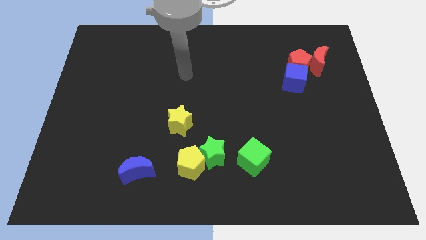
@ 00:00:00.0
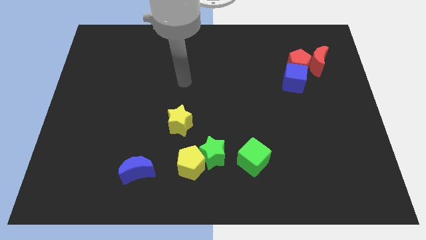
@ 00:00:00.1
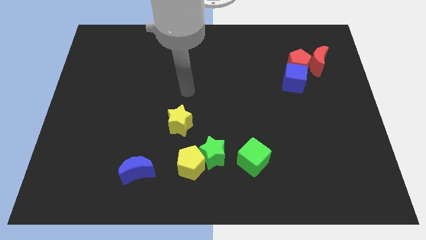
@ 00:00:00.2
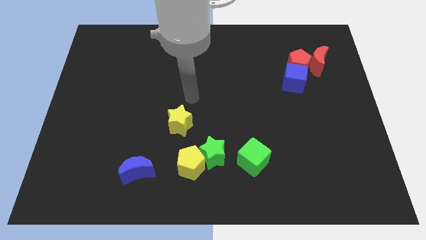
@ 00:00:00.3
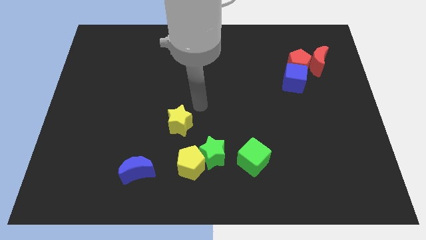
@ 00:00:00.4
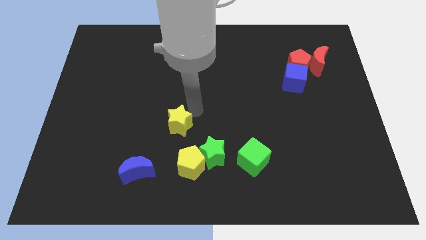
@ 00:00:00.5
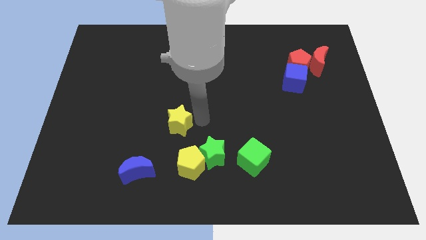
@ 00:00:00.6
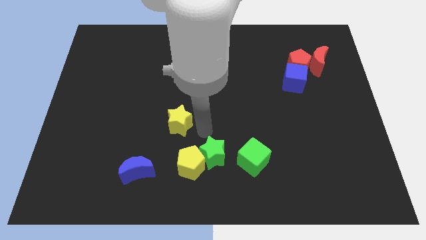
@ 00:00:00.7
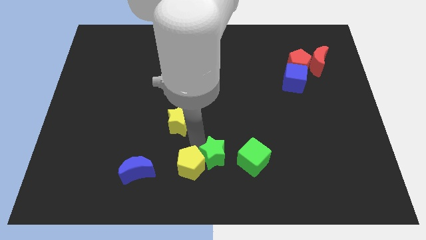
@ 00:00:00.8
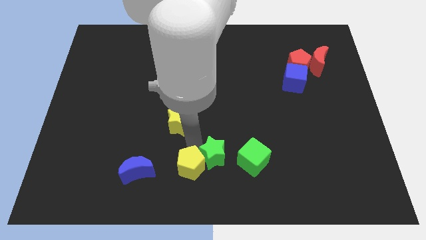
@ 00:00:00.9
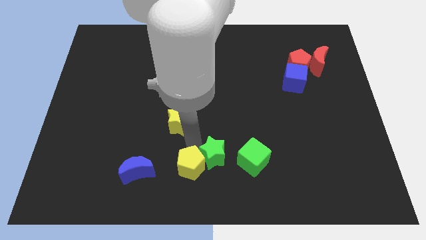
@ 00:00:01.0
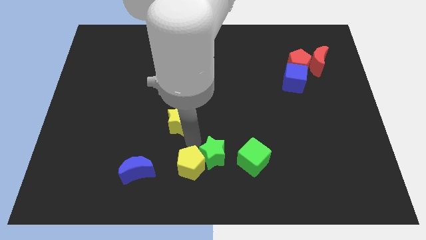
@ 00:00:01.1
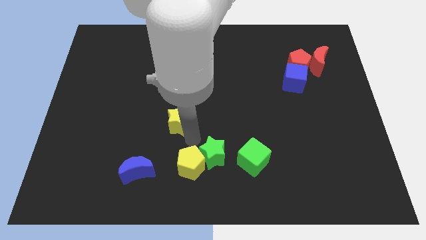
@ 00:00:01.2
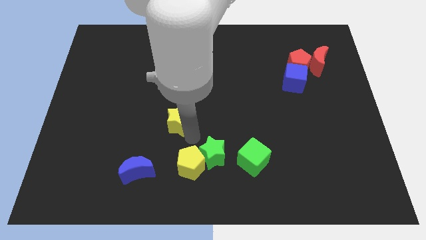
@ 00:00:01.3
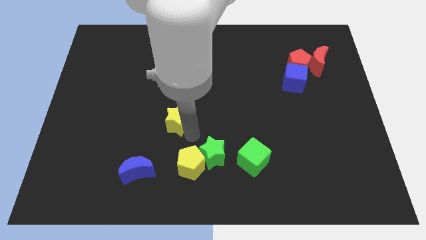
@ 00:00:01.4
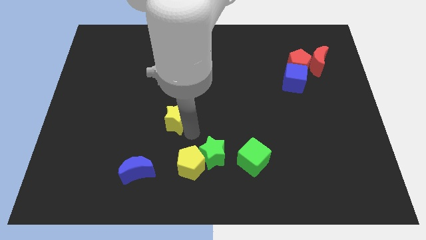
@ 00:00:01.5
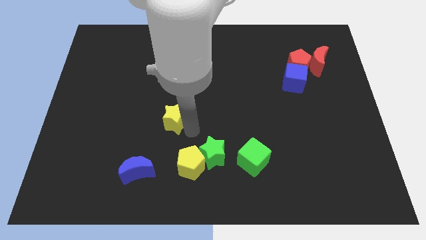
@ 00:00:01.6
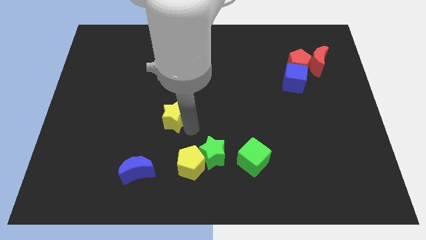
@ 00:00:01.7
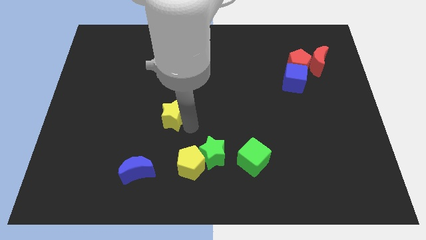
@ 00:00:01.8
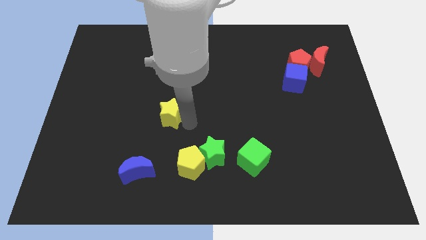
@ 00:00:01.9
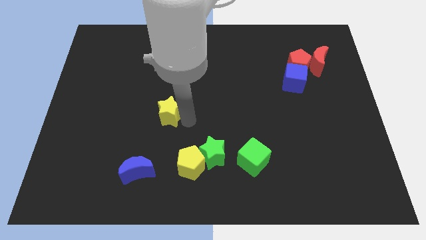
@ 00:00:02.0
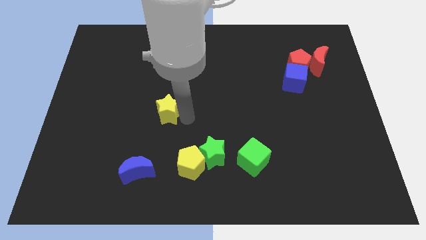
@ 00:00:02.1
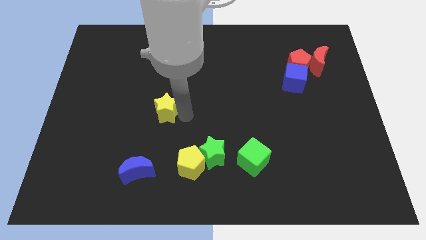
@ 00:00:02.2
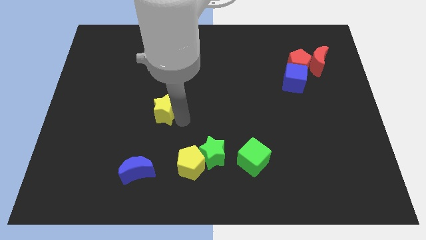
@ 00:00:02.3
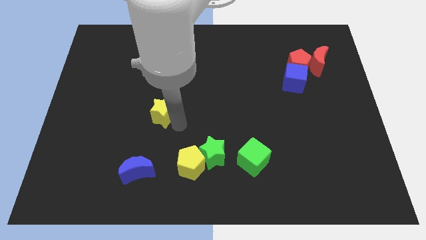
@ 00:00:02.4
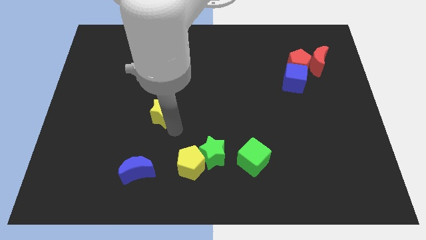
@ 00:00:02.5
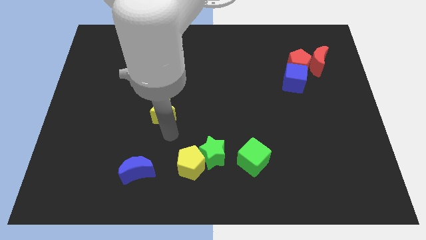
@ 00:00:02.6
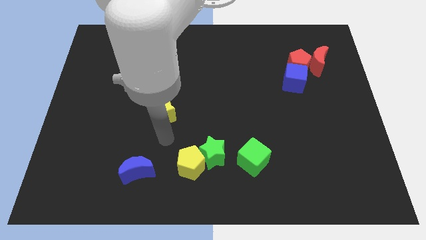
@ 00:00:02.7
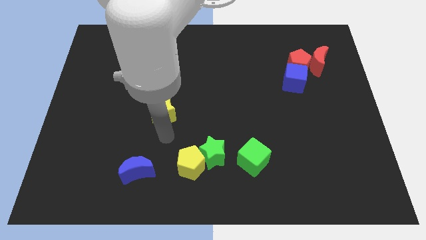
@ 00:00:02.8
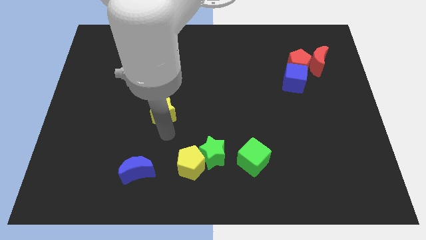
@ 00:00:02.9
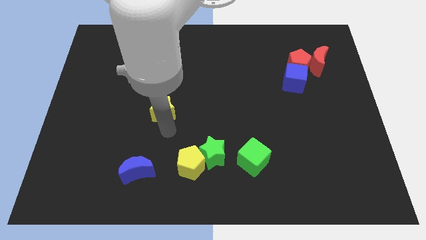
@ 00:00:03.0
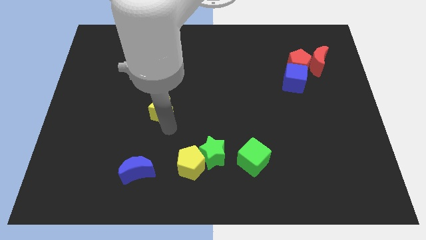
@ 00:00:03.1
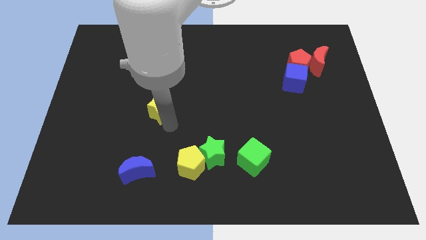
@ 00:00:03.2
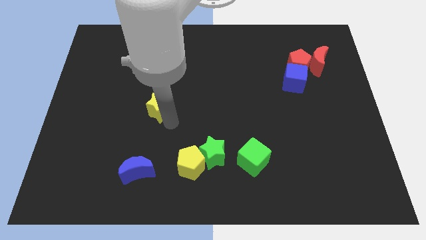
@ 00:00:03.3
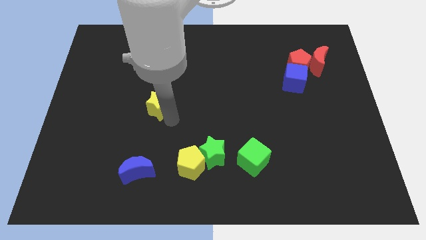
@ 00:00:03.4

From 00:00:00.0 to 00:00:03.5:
slightly push the yellow star upwards and left

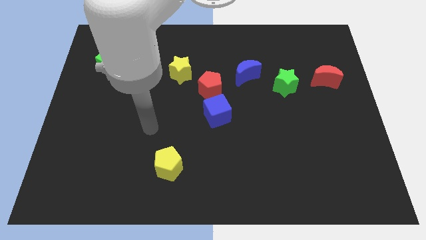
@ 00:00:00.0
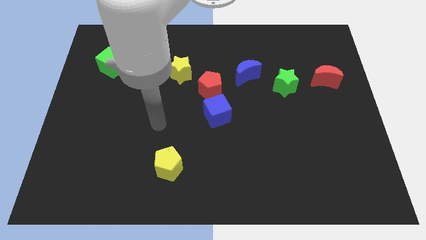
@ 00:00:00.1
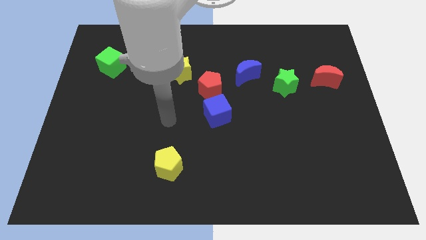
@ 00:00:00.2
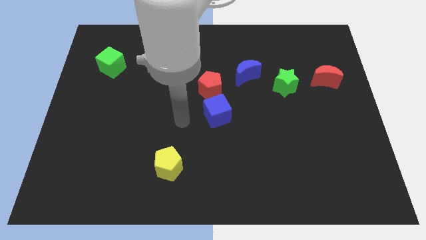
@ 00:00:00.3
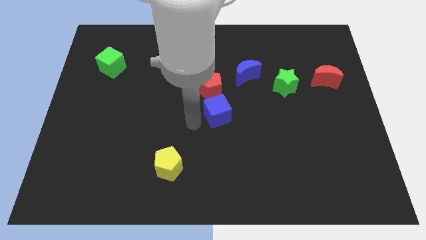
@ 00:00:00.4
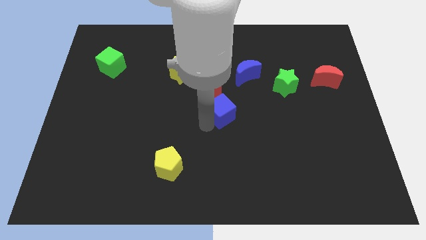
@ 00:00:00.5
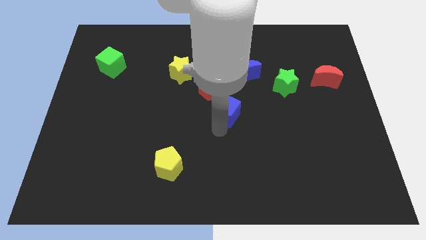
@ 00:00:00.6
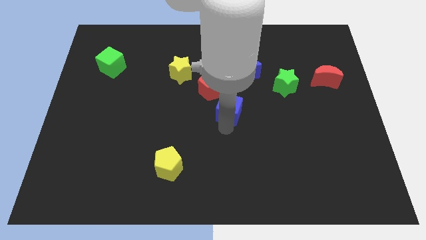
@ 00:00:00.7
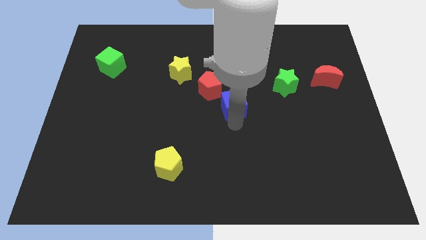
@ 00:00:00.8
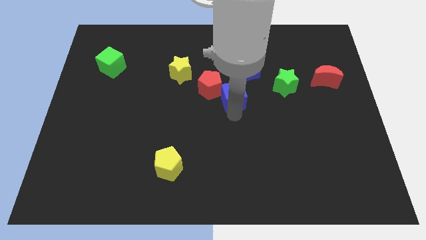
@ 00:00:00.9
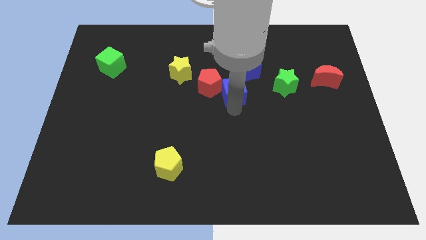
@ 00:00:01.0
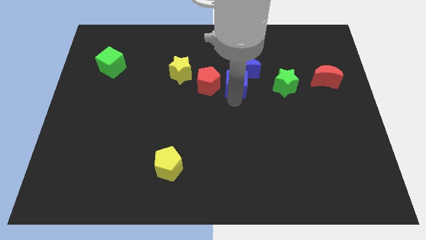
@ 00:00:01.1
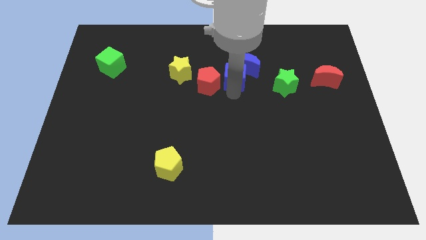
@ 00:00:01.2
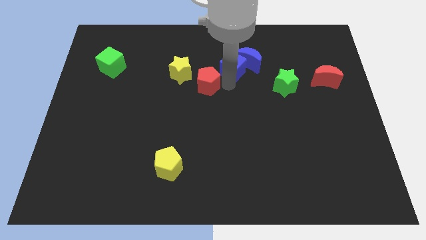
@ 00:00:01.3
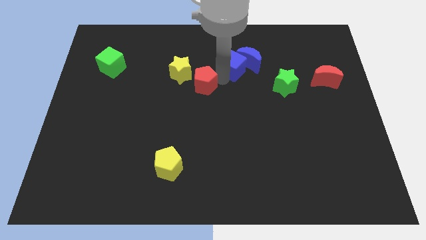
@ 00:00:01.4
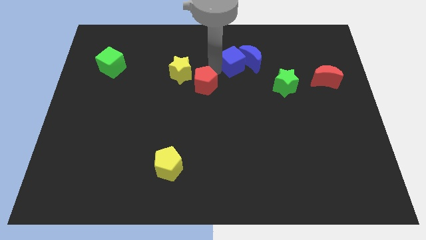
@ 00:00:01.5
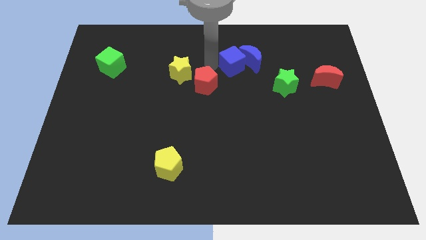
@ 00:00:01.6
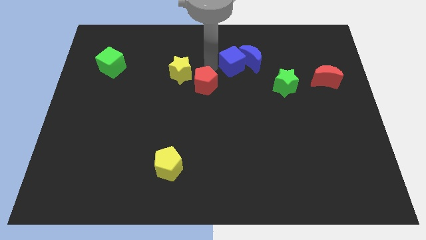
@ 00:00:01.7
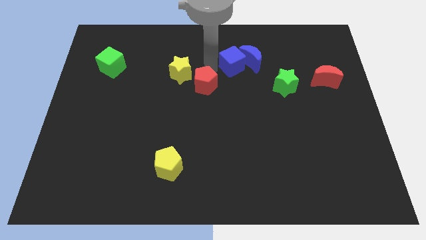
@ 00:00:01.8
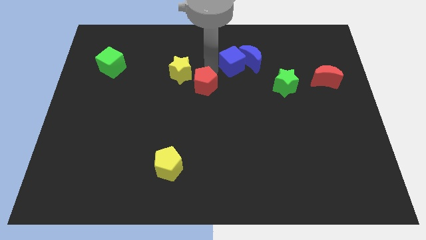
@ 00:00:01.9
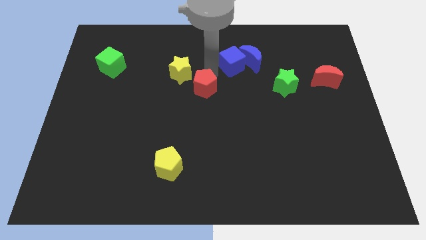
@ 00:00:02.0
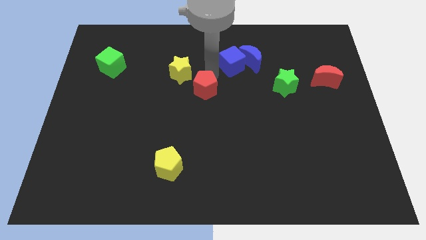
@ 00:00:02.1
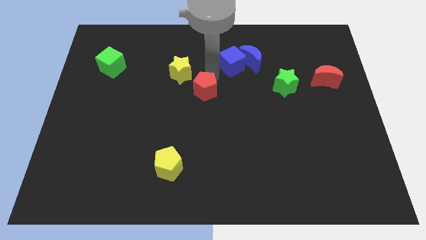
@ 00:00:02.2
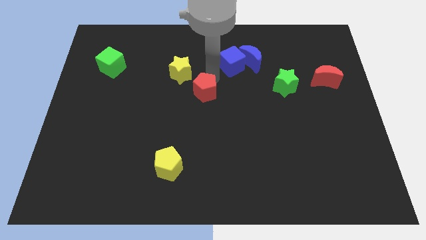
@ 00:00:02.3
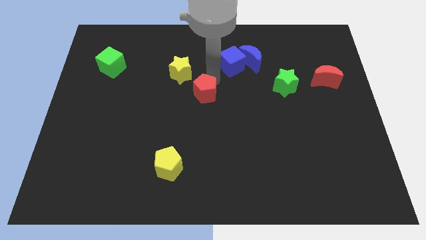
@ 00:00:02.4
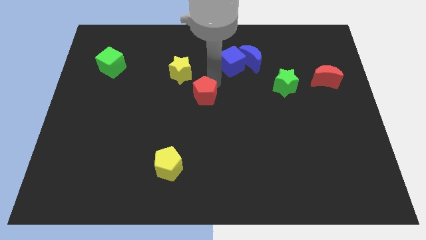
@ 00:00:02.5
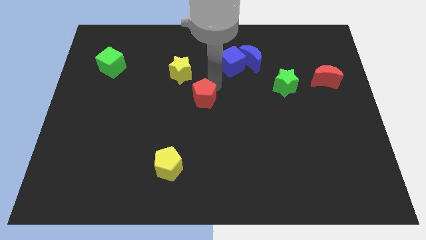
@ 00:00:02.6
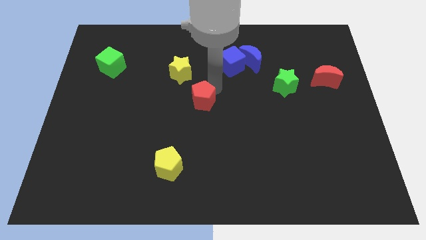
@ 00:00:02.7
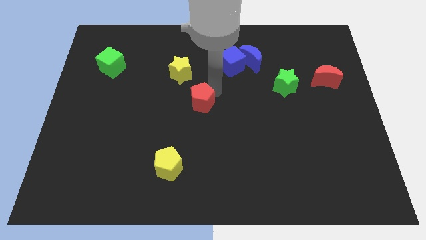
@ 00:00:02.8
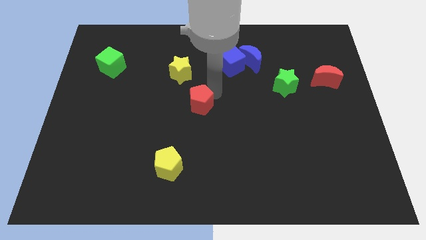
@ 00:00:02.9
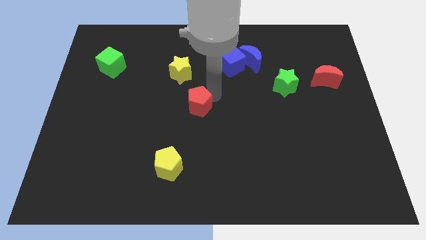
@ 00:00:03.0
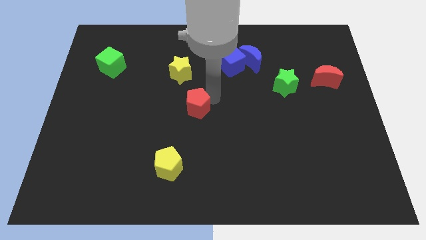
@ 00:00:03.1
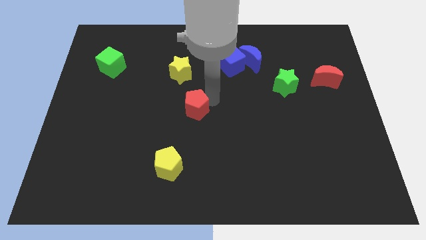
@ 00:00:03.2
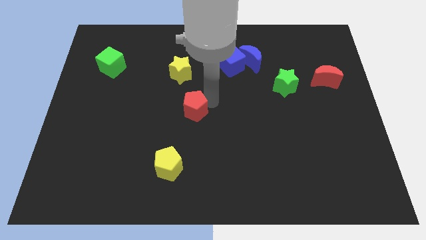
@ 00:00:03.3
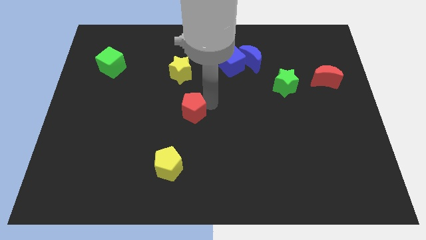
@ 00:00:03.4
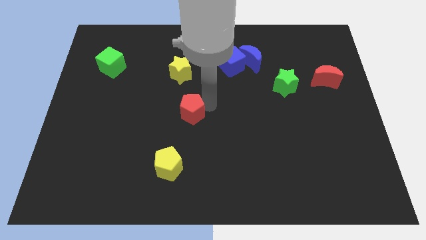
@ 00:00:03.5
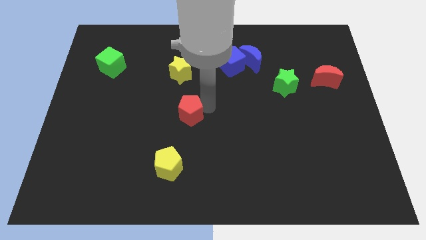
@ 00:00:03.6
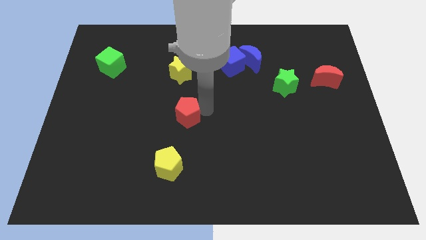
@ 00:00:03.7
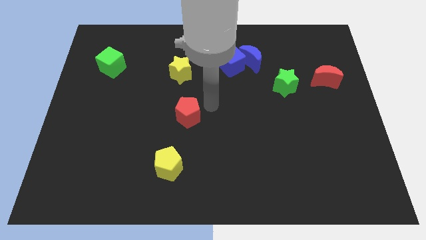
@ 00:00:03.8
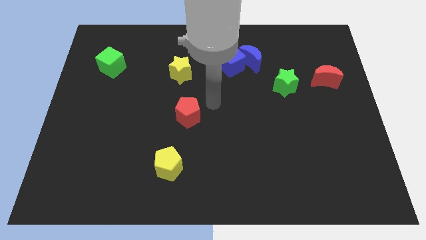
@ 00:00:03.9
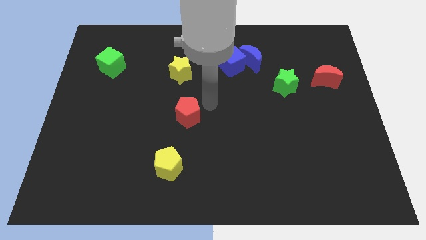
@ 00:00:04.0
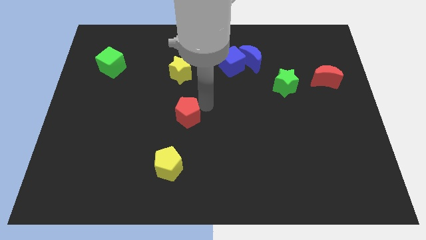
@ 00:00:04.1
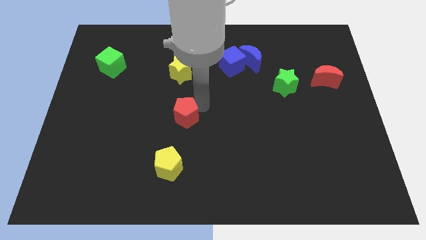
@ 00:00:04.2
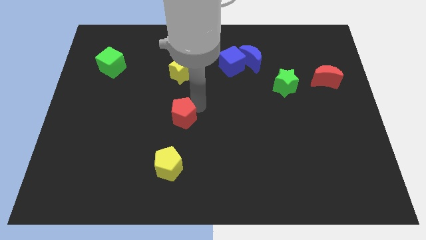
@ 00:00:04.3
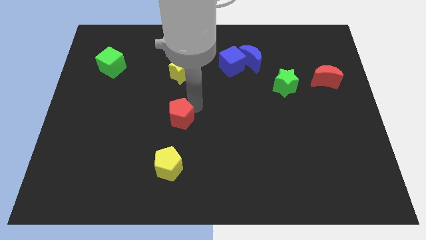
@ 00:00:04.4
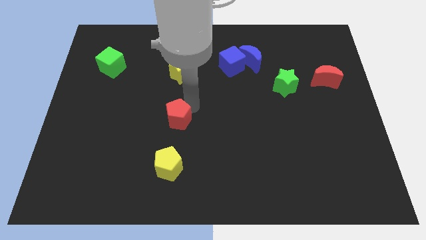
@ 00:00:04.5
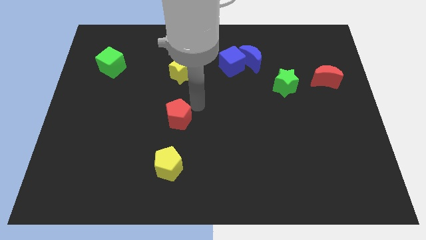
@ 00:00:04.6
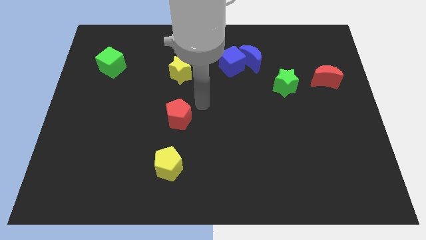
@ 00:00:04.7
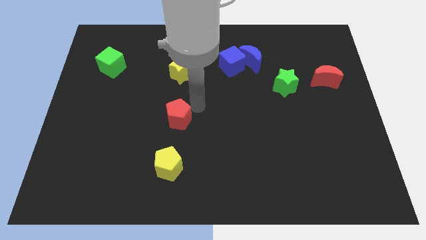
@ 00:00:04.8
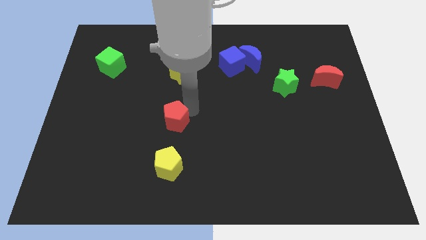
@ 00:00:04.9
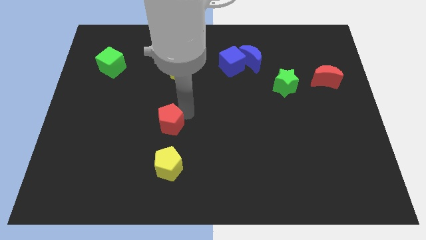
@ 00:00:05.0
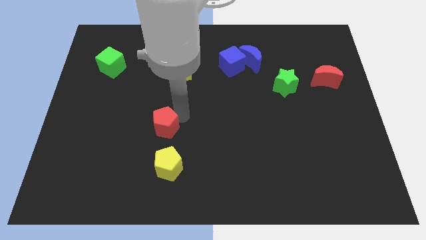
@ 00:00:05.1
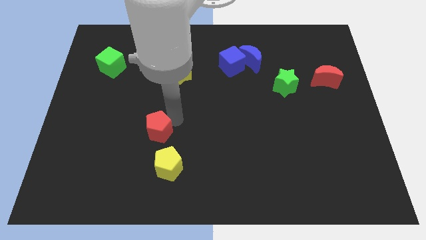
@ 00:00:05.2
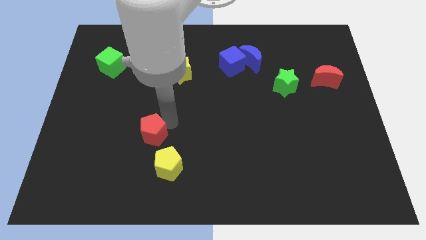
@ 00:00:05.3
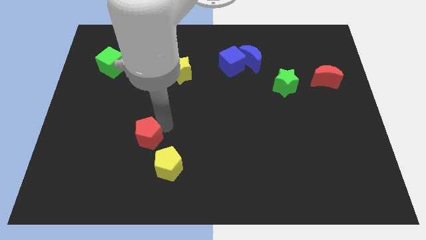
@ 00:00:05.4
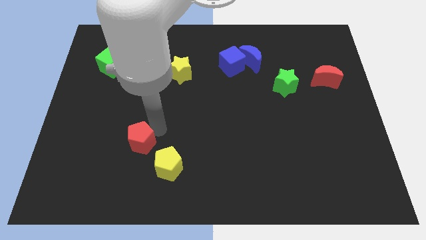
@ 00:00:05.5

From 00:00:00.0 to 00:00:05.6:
slide the red pentagon downwards and then to the left
